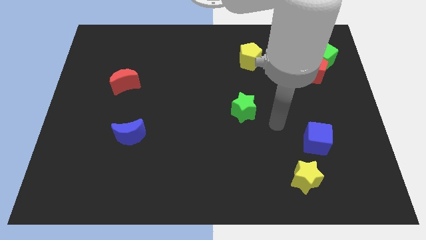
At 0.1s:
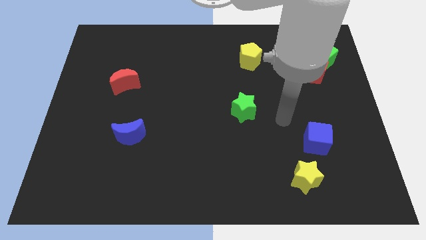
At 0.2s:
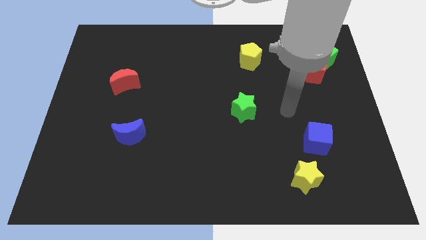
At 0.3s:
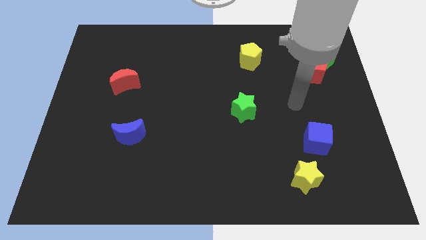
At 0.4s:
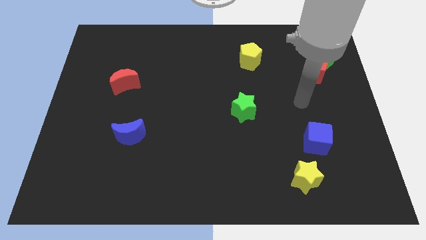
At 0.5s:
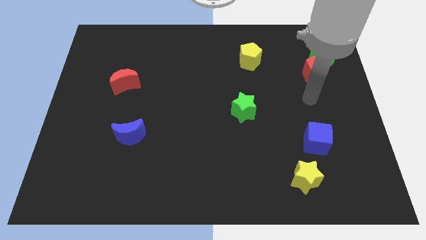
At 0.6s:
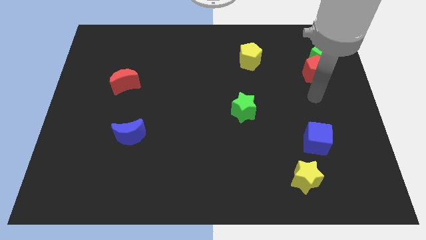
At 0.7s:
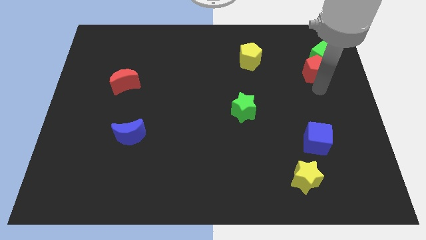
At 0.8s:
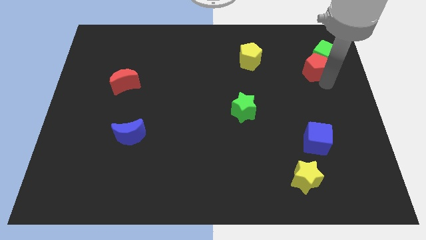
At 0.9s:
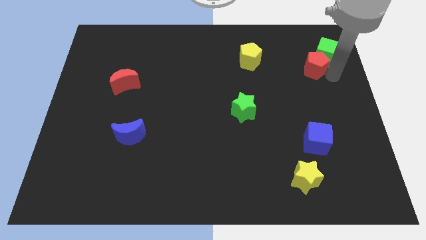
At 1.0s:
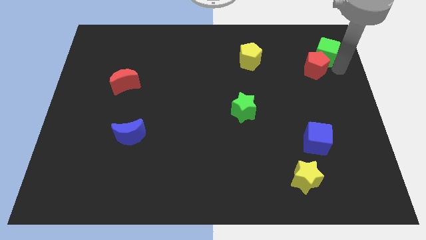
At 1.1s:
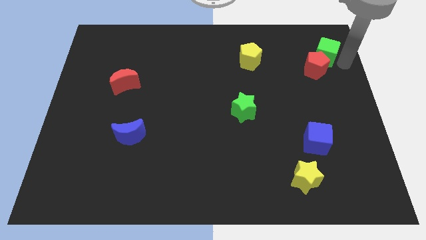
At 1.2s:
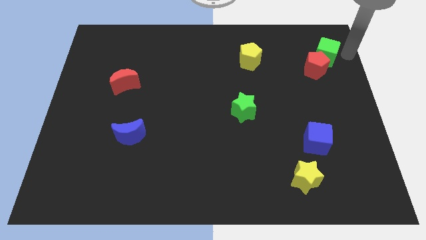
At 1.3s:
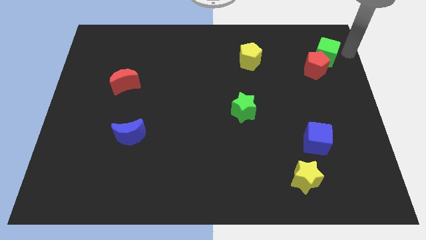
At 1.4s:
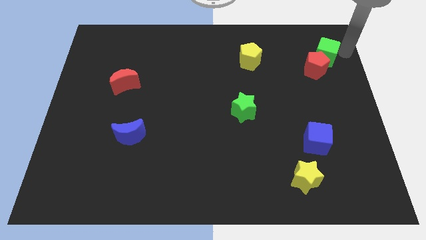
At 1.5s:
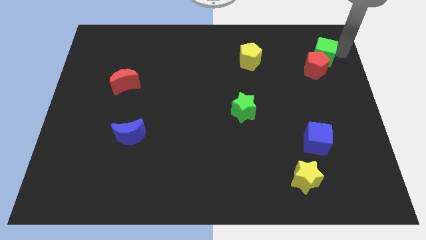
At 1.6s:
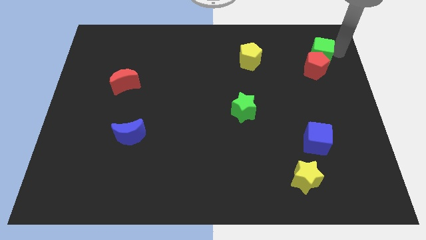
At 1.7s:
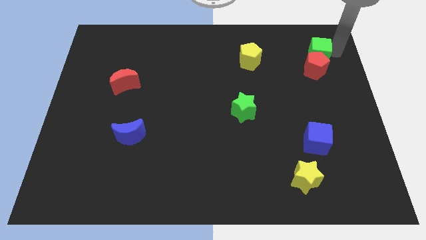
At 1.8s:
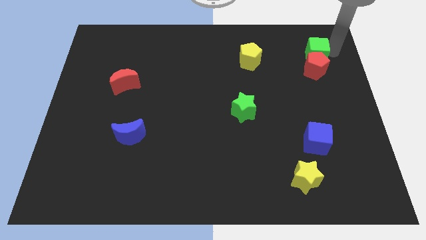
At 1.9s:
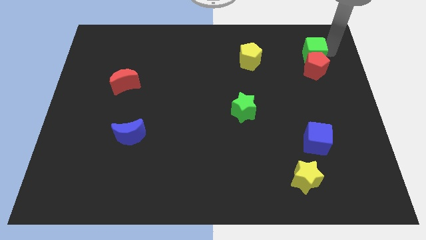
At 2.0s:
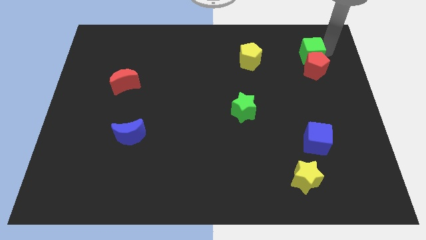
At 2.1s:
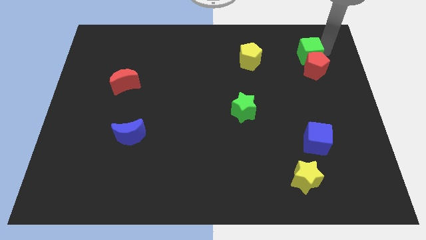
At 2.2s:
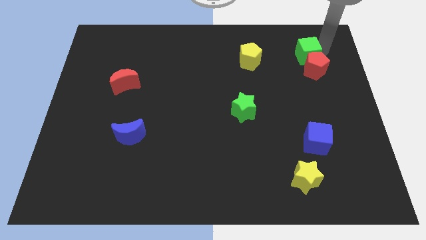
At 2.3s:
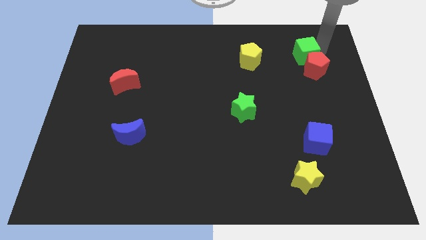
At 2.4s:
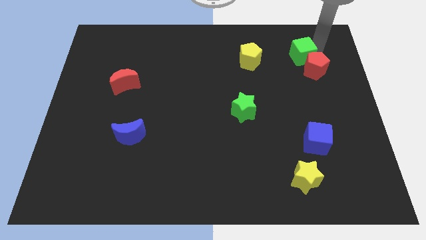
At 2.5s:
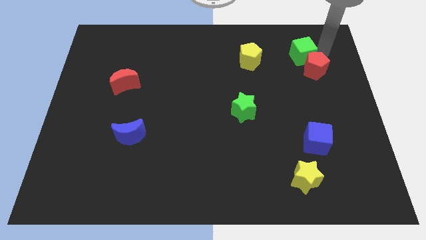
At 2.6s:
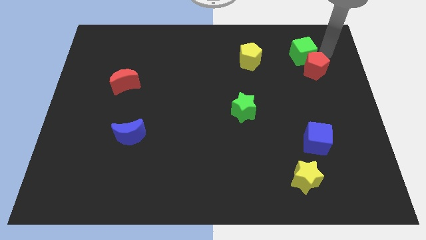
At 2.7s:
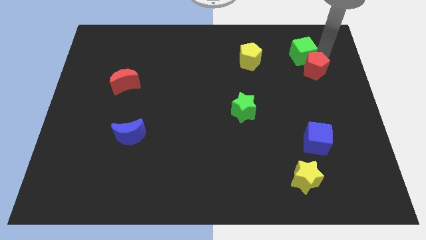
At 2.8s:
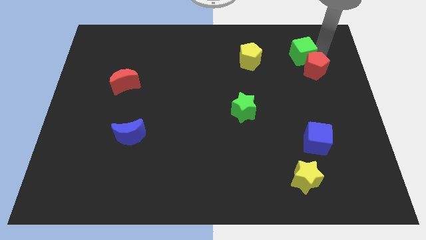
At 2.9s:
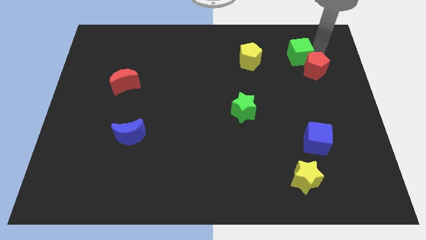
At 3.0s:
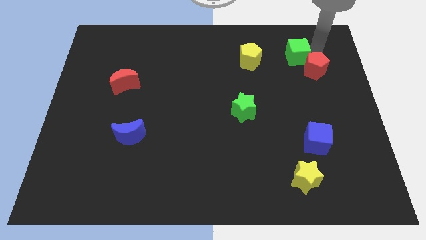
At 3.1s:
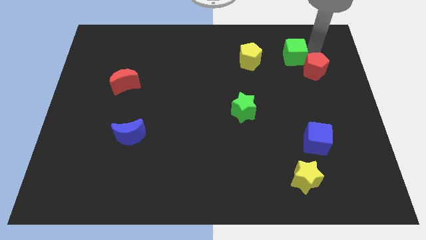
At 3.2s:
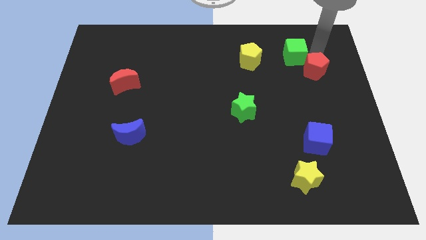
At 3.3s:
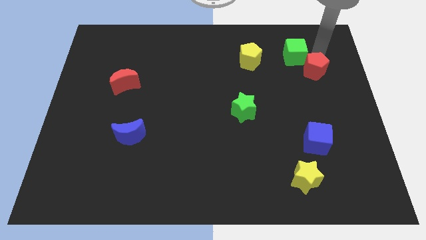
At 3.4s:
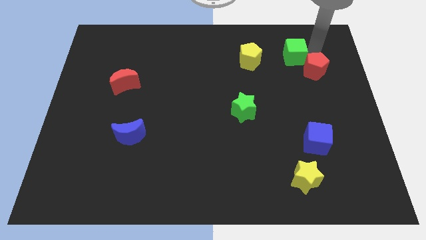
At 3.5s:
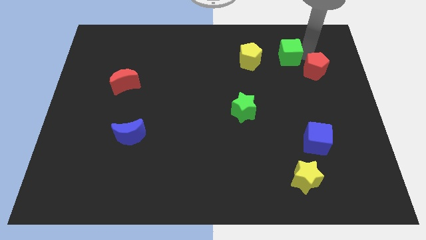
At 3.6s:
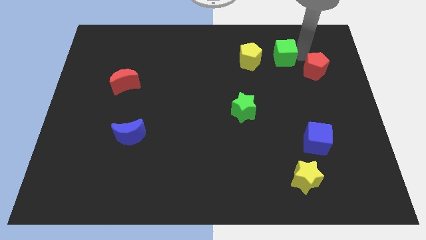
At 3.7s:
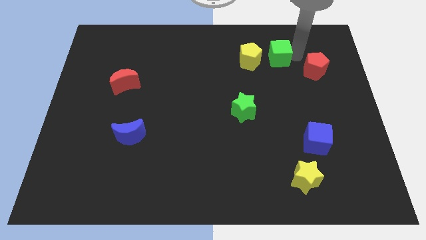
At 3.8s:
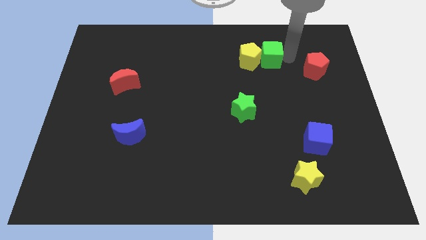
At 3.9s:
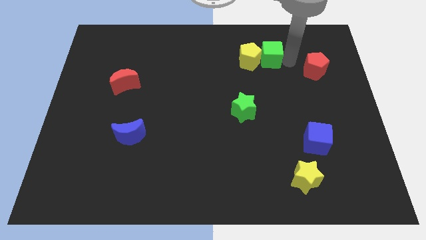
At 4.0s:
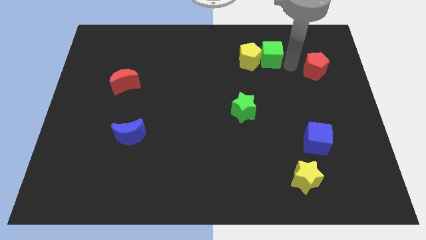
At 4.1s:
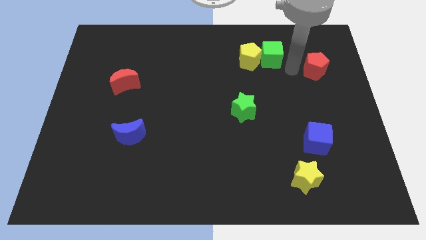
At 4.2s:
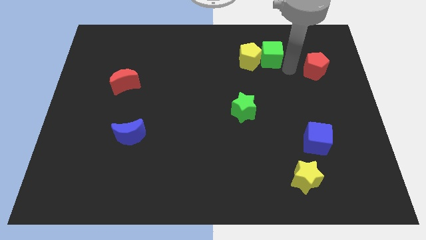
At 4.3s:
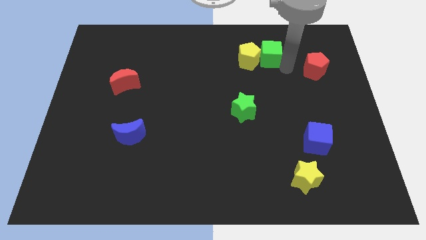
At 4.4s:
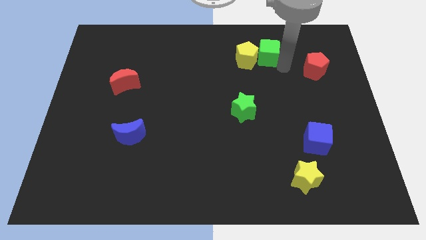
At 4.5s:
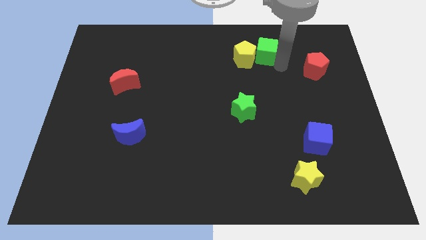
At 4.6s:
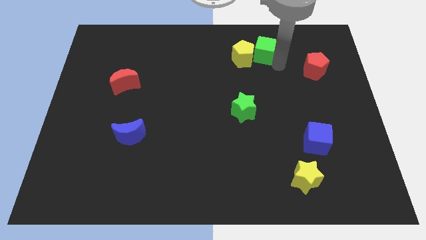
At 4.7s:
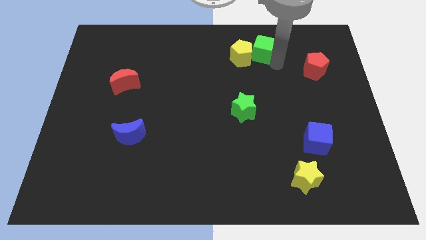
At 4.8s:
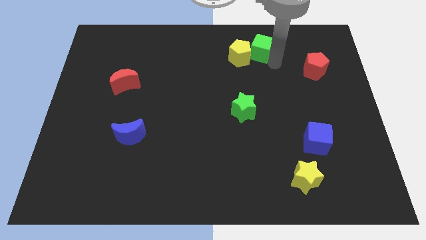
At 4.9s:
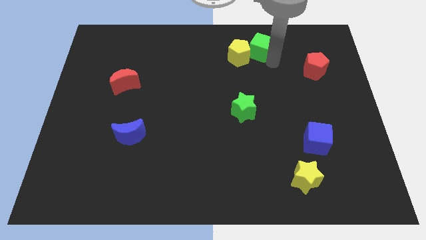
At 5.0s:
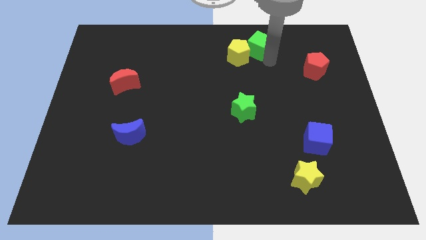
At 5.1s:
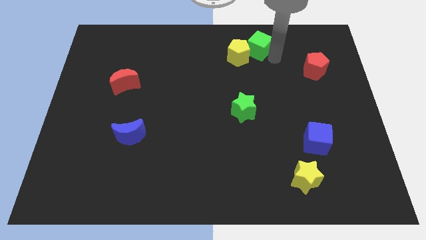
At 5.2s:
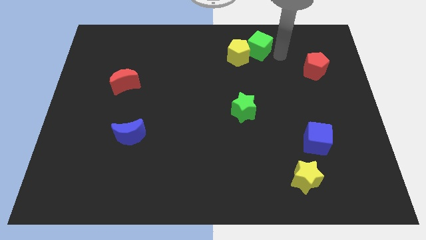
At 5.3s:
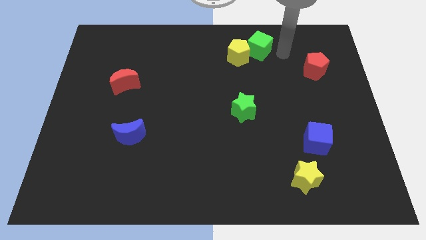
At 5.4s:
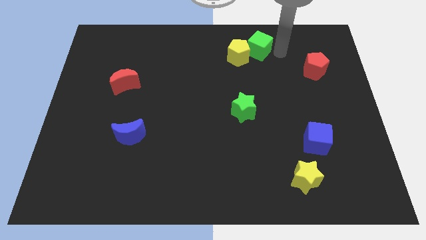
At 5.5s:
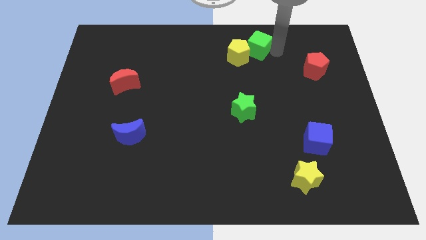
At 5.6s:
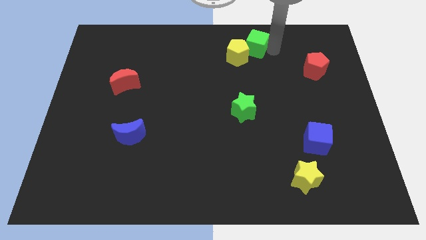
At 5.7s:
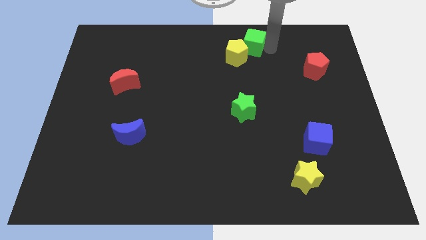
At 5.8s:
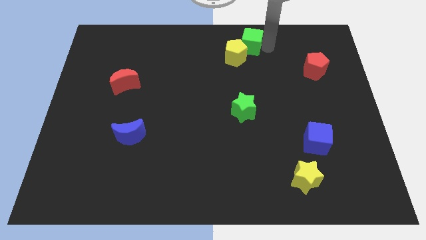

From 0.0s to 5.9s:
push the green cube to the top side
